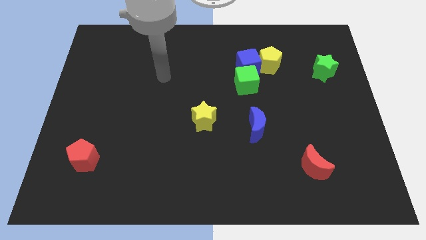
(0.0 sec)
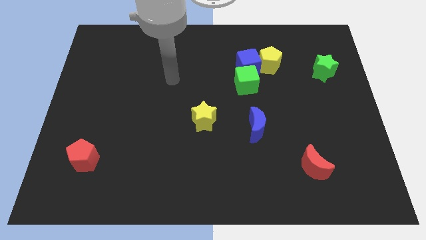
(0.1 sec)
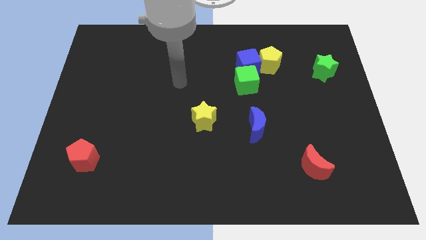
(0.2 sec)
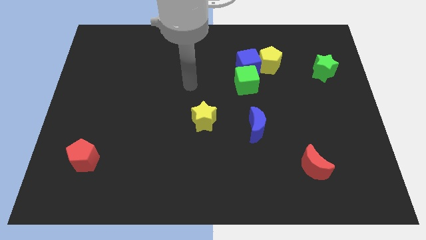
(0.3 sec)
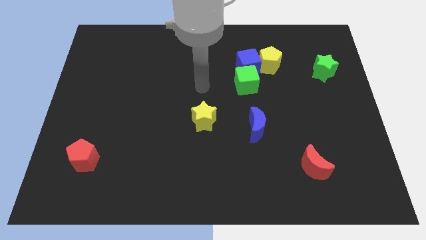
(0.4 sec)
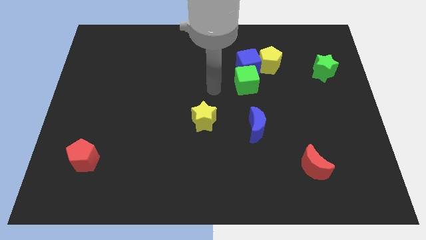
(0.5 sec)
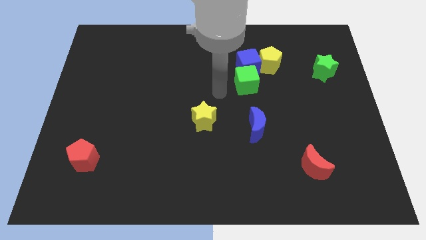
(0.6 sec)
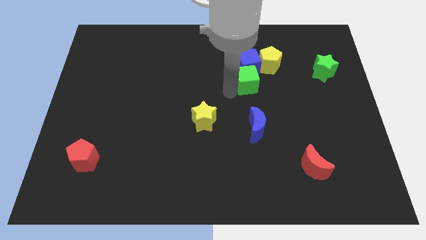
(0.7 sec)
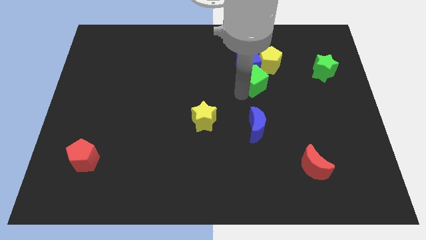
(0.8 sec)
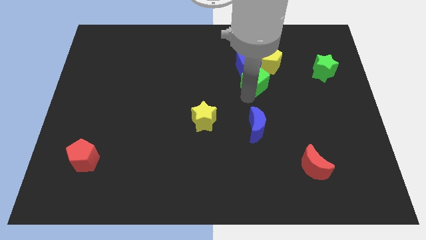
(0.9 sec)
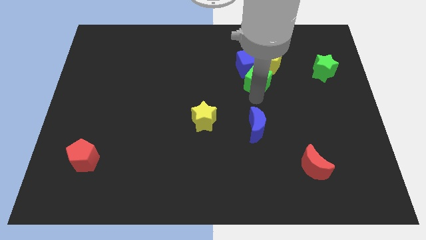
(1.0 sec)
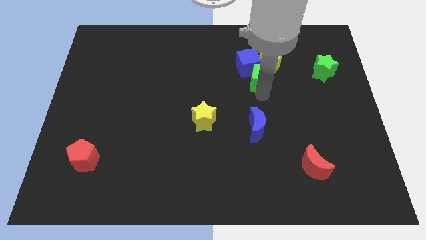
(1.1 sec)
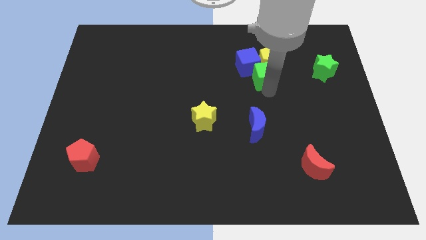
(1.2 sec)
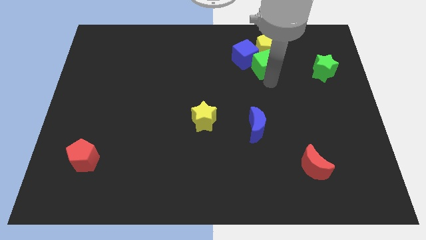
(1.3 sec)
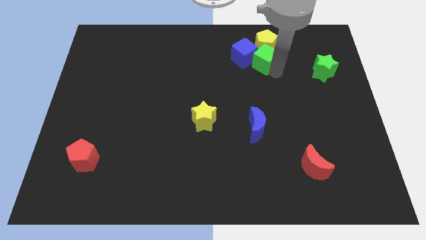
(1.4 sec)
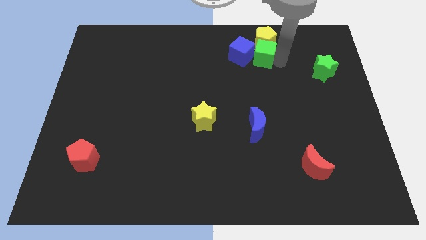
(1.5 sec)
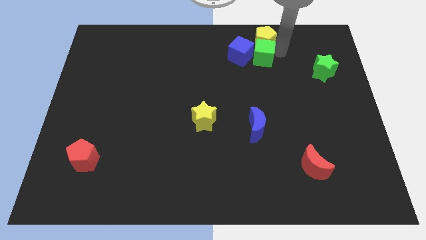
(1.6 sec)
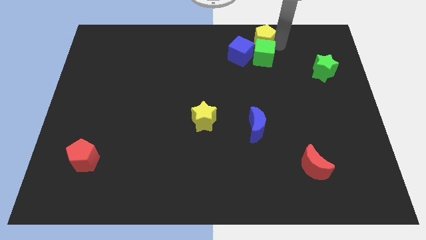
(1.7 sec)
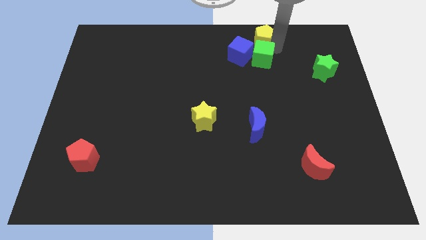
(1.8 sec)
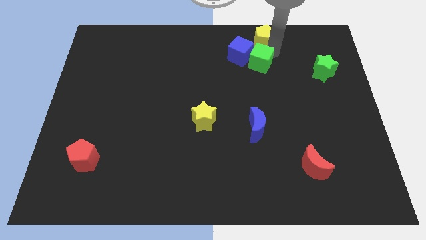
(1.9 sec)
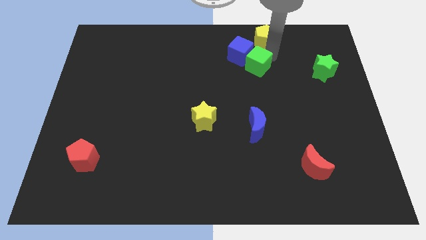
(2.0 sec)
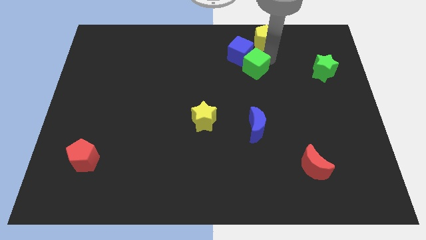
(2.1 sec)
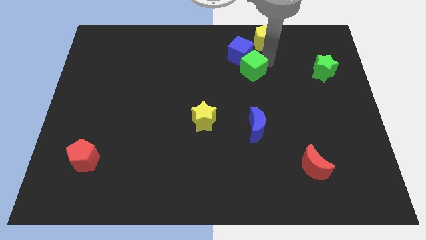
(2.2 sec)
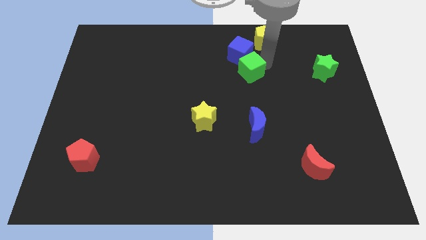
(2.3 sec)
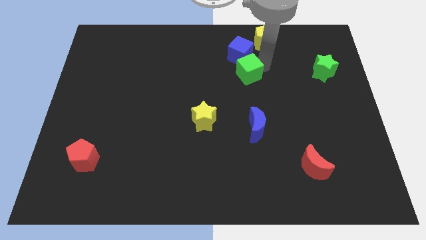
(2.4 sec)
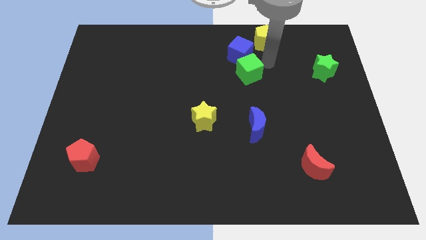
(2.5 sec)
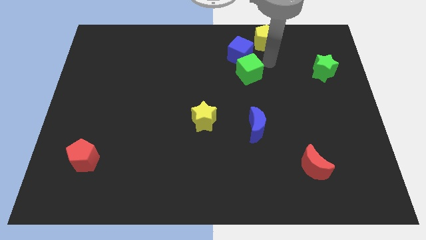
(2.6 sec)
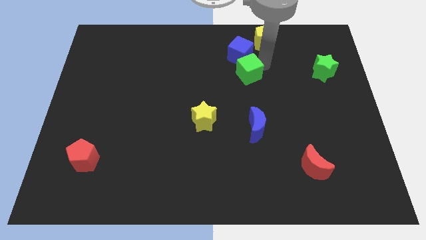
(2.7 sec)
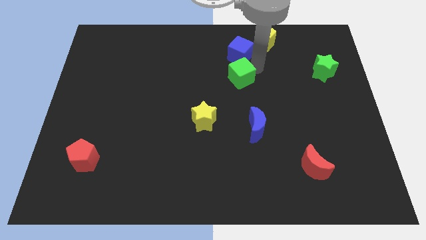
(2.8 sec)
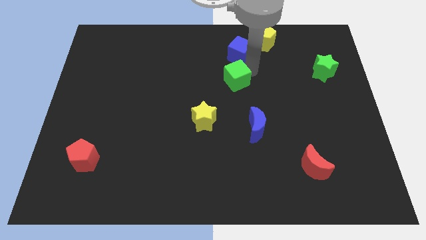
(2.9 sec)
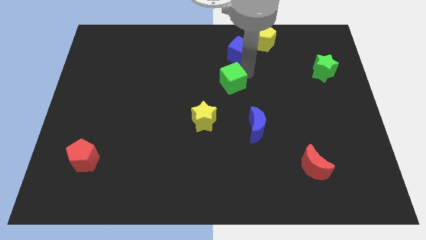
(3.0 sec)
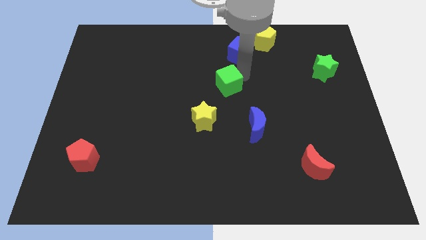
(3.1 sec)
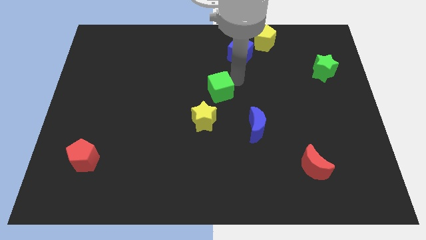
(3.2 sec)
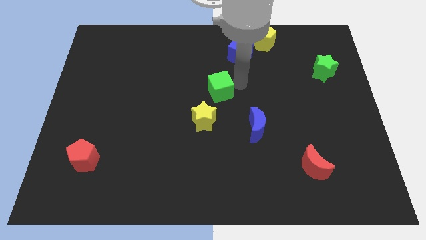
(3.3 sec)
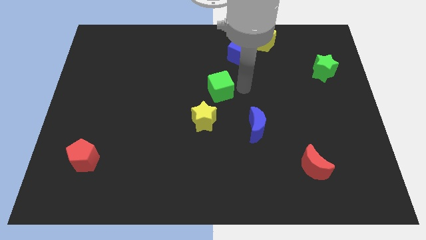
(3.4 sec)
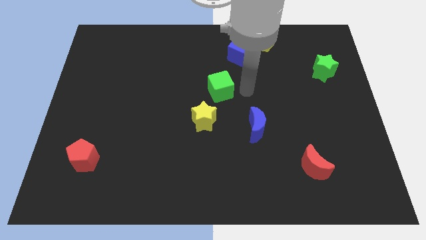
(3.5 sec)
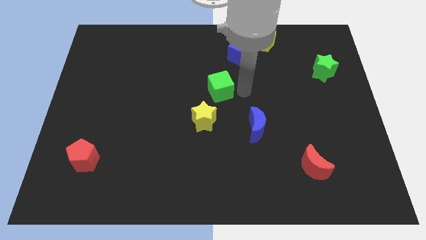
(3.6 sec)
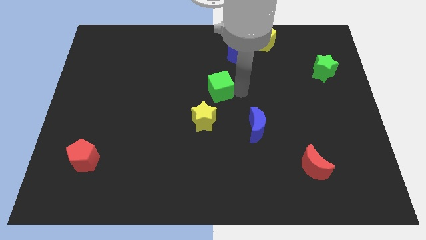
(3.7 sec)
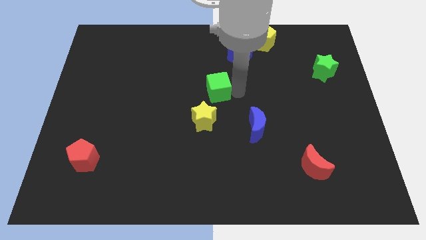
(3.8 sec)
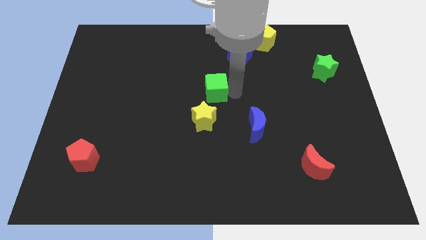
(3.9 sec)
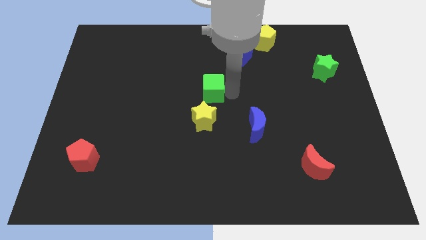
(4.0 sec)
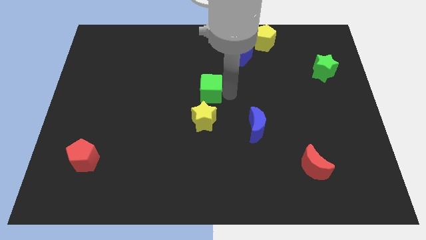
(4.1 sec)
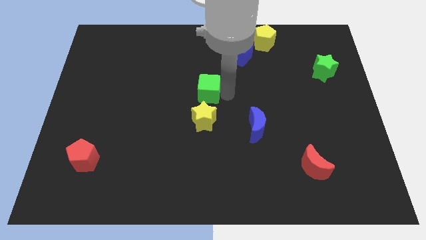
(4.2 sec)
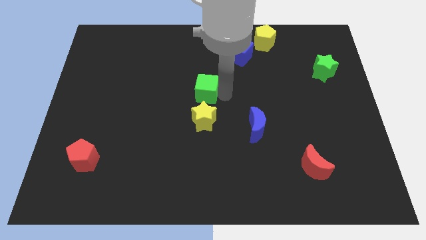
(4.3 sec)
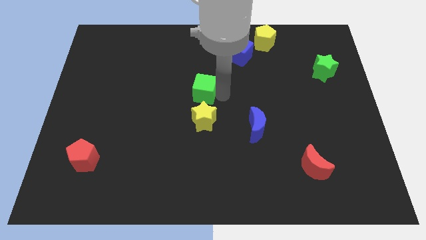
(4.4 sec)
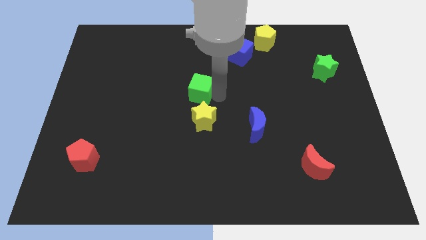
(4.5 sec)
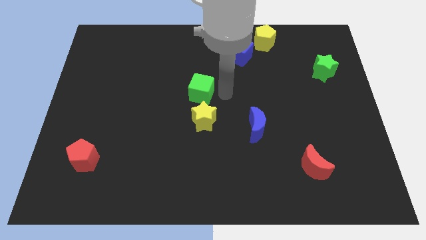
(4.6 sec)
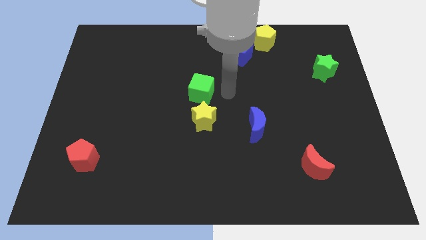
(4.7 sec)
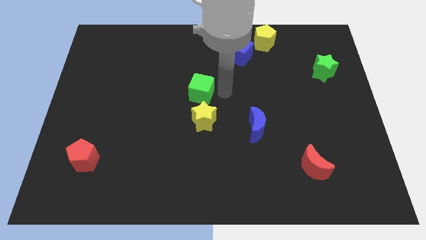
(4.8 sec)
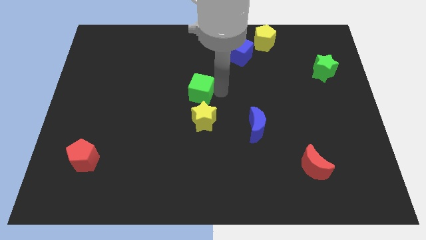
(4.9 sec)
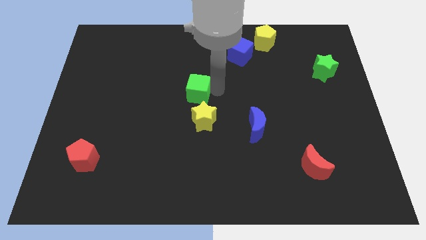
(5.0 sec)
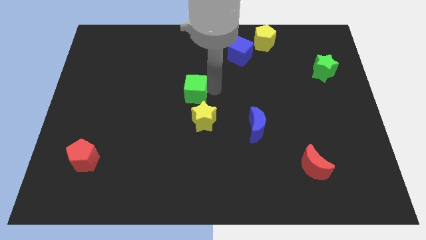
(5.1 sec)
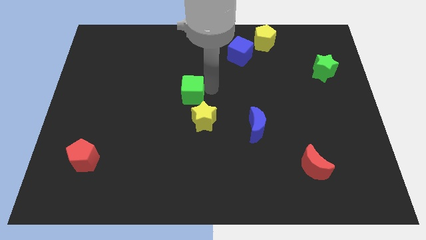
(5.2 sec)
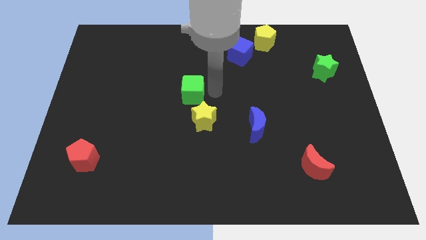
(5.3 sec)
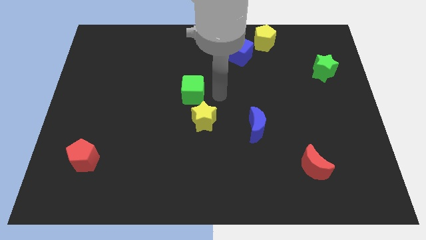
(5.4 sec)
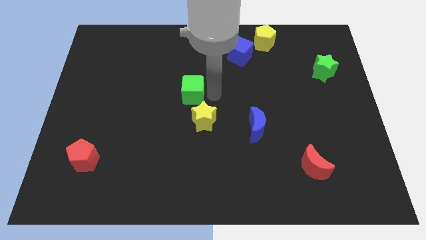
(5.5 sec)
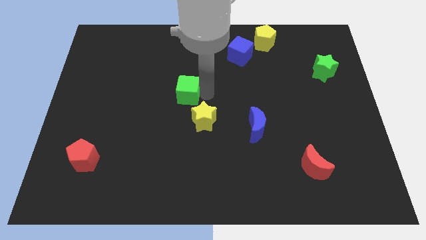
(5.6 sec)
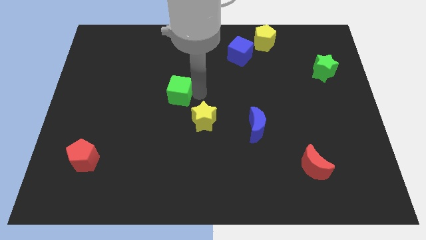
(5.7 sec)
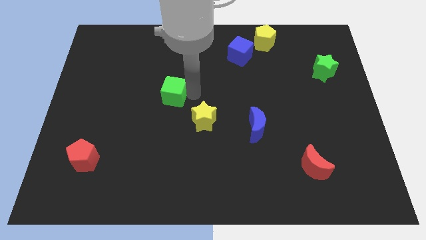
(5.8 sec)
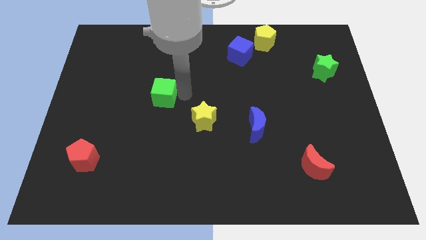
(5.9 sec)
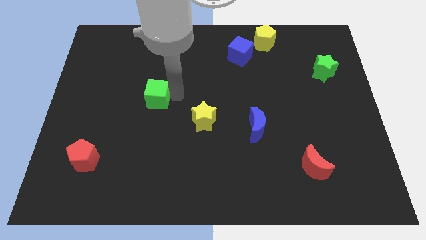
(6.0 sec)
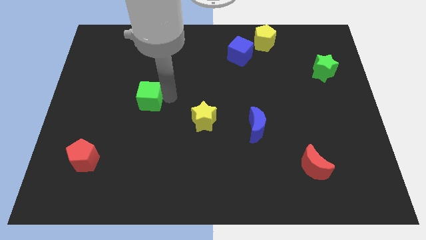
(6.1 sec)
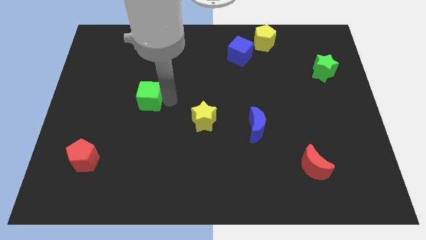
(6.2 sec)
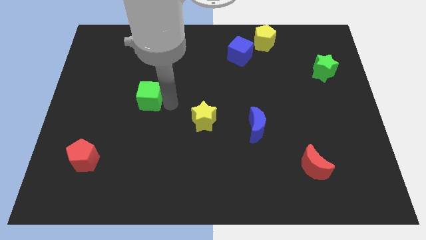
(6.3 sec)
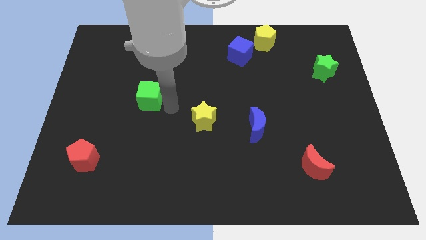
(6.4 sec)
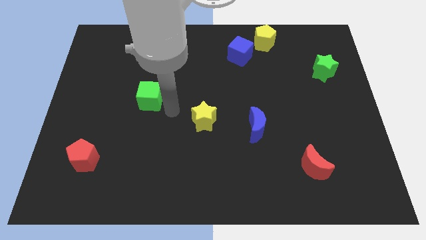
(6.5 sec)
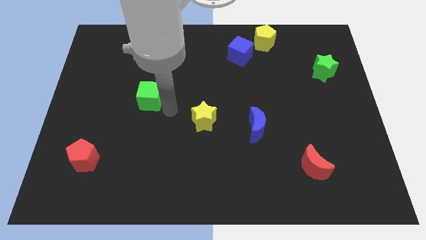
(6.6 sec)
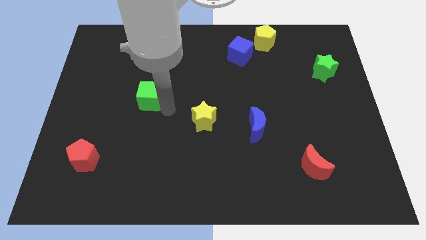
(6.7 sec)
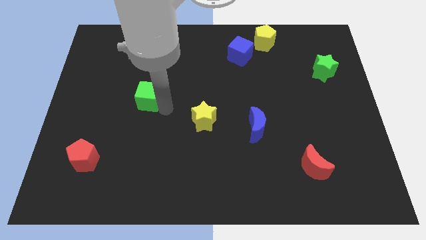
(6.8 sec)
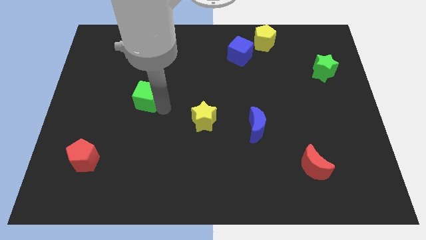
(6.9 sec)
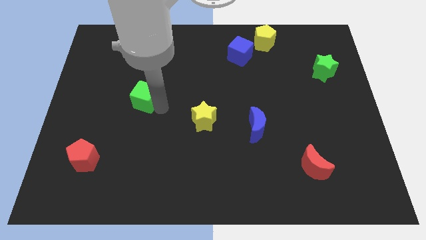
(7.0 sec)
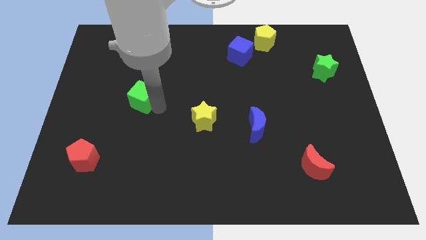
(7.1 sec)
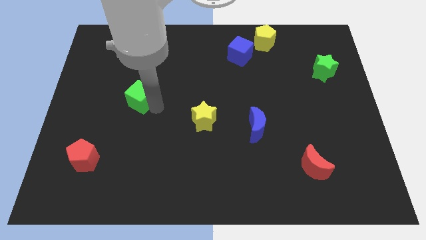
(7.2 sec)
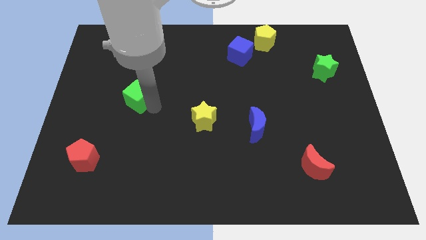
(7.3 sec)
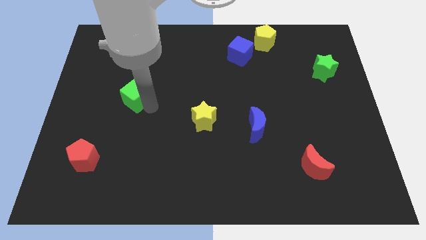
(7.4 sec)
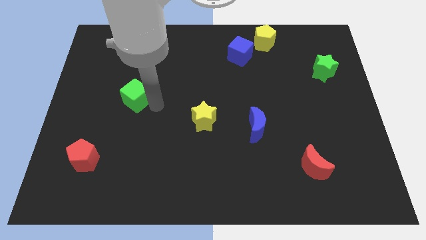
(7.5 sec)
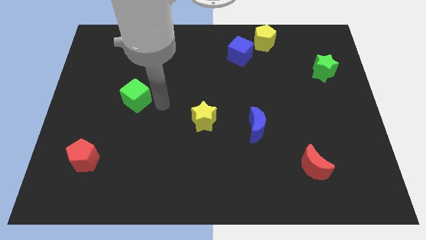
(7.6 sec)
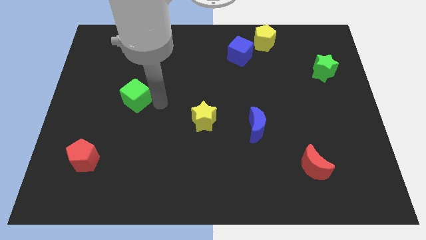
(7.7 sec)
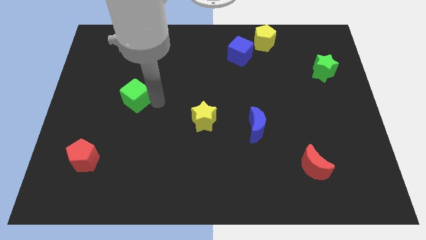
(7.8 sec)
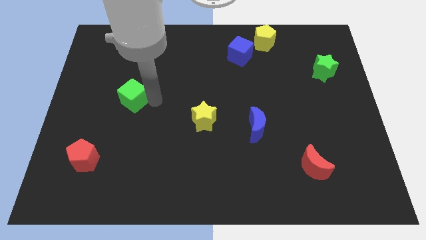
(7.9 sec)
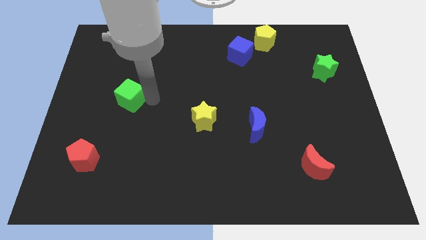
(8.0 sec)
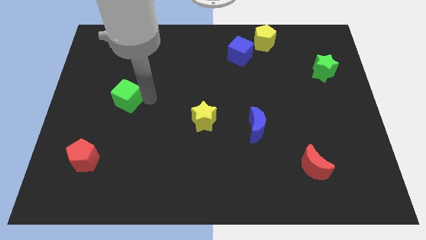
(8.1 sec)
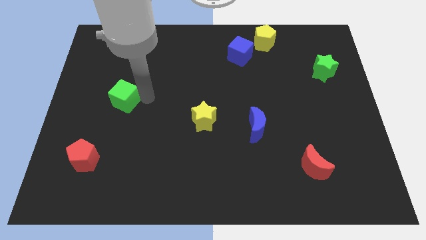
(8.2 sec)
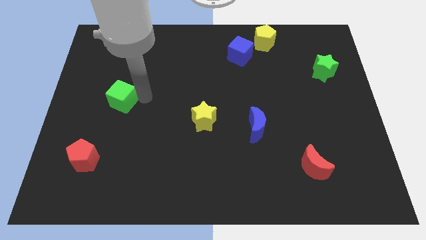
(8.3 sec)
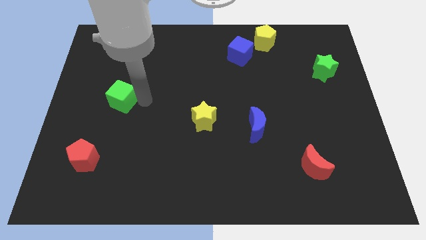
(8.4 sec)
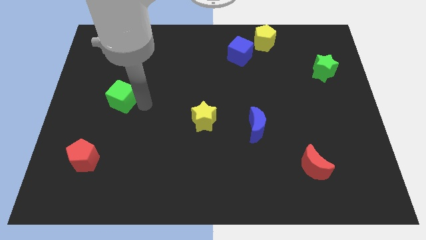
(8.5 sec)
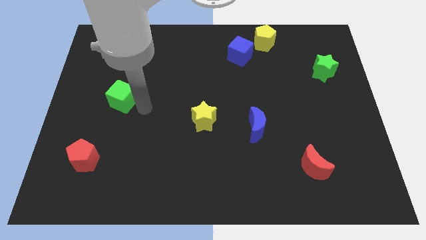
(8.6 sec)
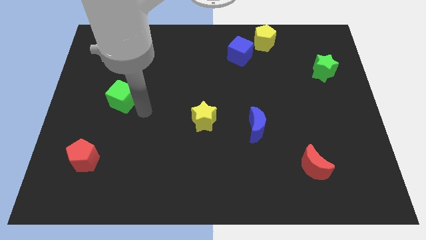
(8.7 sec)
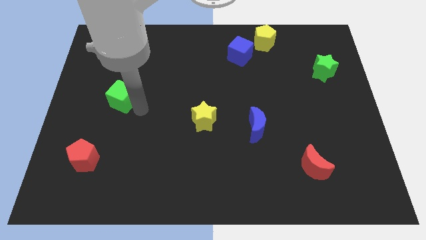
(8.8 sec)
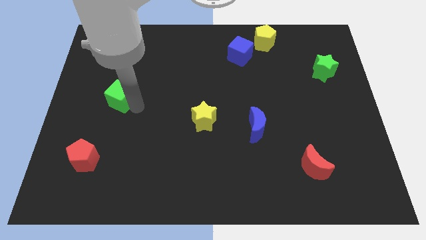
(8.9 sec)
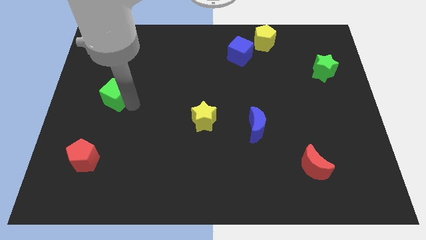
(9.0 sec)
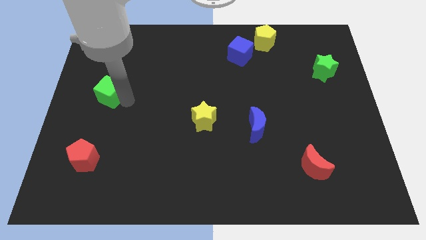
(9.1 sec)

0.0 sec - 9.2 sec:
put the green cube to the left side
